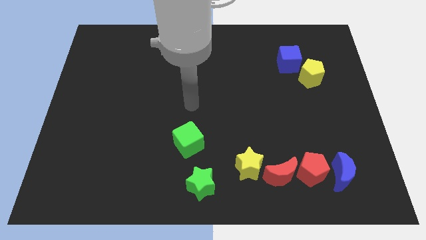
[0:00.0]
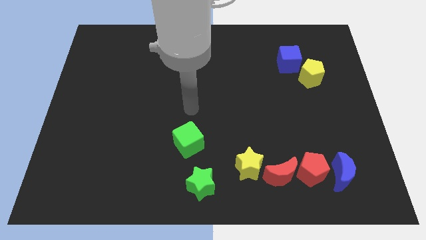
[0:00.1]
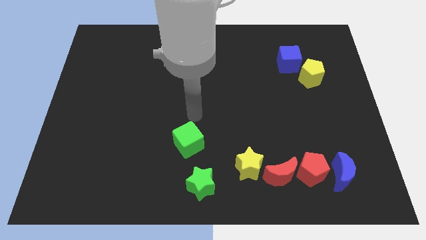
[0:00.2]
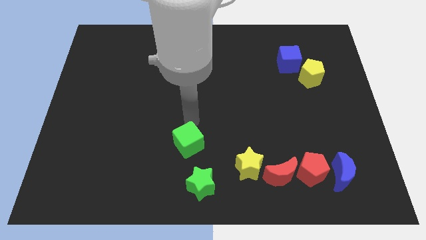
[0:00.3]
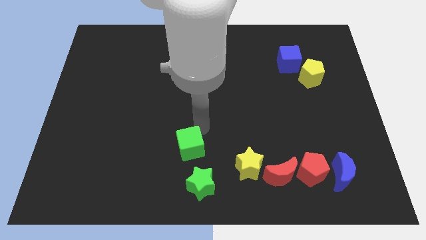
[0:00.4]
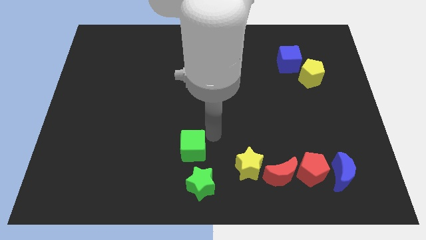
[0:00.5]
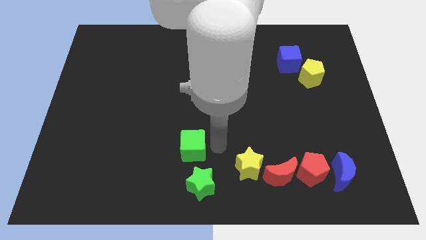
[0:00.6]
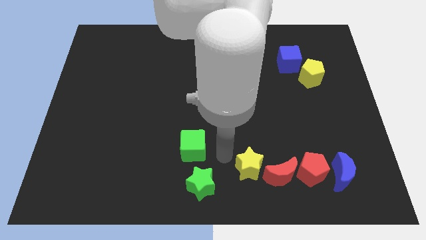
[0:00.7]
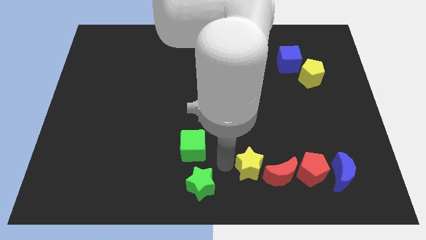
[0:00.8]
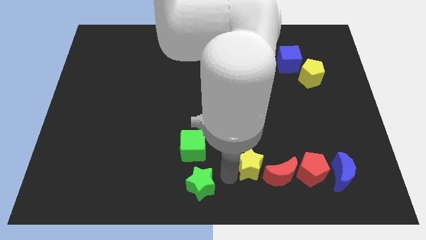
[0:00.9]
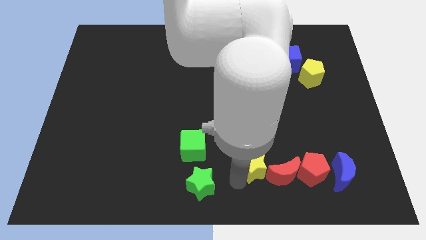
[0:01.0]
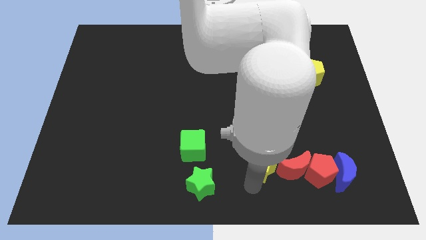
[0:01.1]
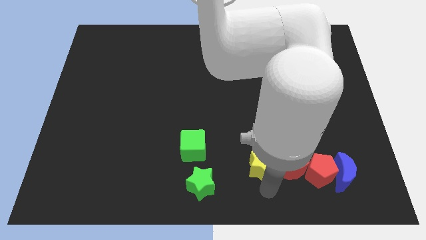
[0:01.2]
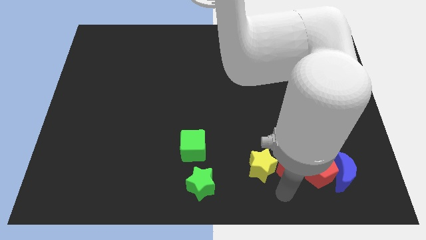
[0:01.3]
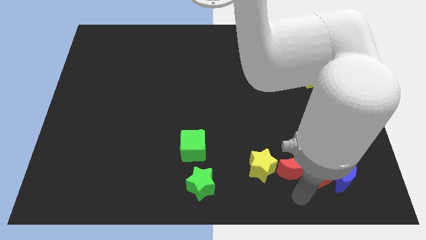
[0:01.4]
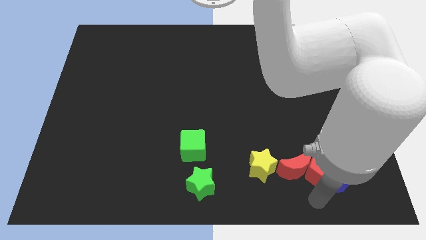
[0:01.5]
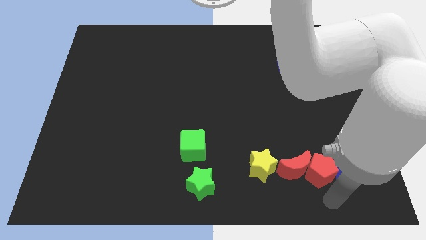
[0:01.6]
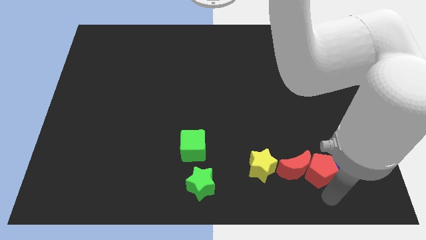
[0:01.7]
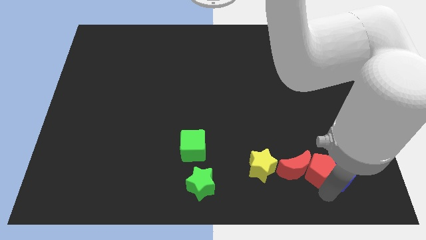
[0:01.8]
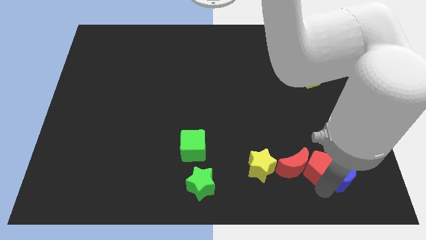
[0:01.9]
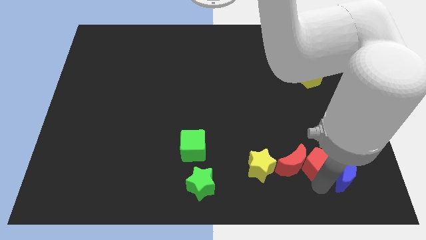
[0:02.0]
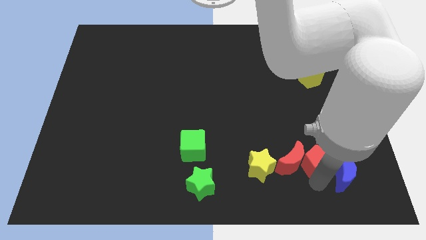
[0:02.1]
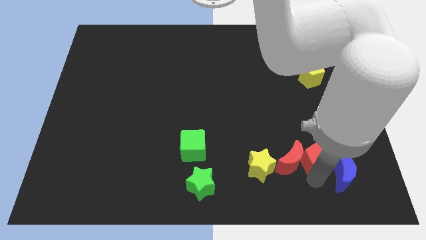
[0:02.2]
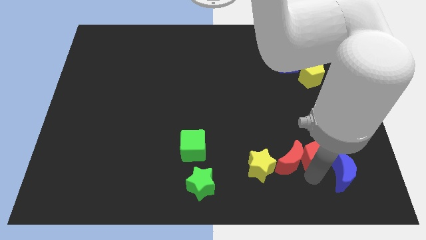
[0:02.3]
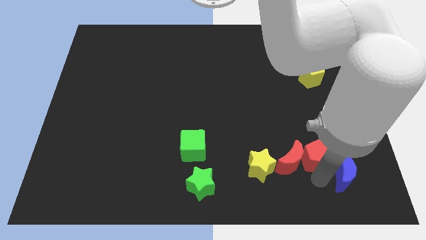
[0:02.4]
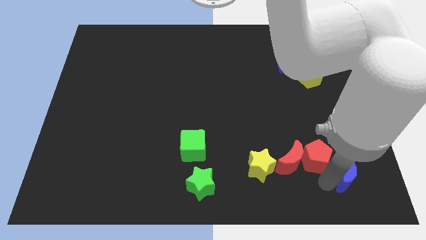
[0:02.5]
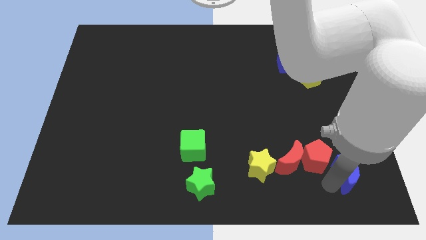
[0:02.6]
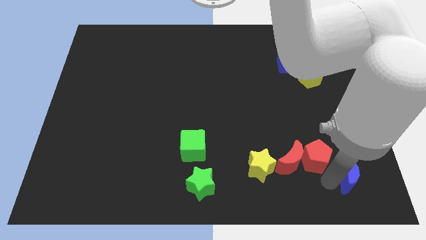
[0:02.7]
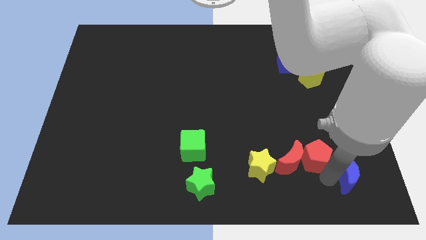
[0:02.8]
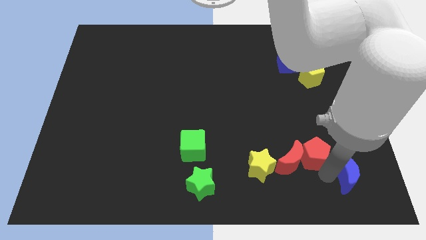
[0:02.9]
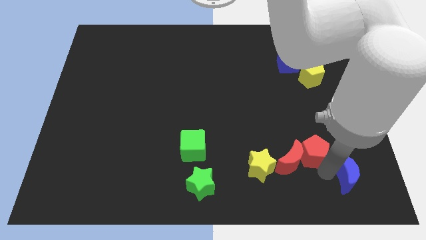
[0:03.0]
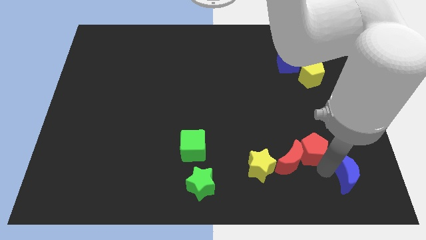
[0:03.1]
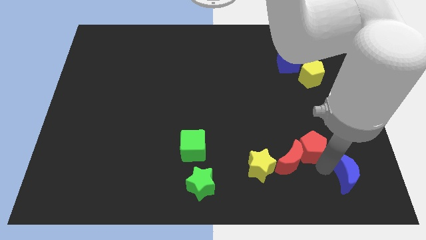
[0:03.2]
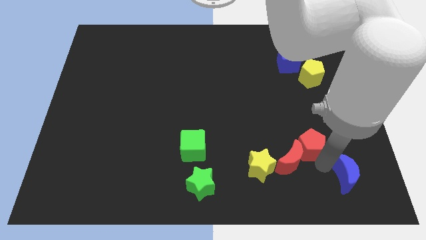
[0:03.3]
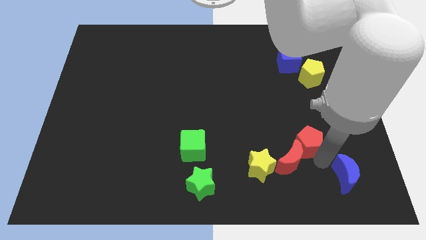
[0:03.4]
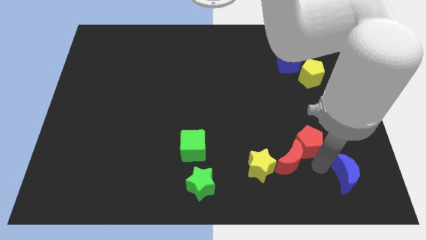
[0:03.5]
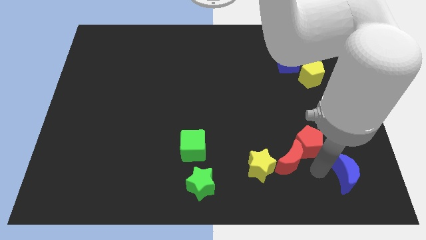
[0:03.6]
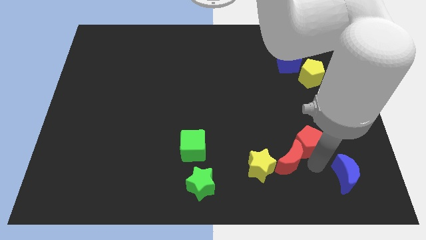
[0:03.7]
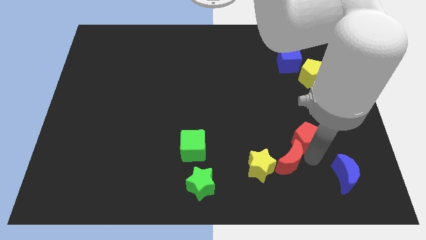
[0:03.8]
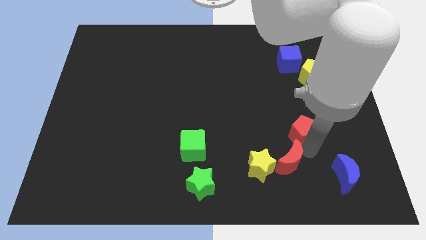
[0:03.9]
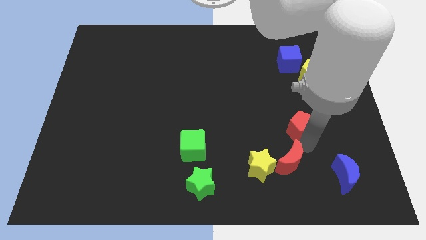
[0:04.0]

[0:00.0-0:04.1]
move the red pentagon away from the red moon and blue moon

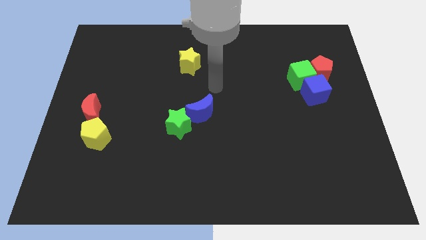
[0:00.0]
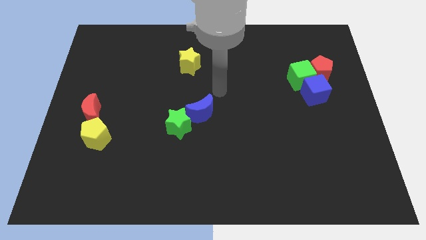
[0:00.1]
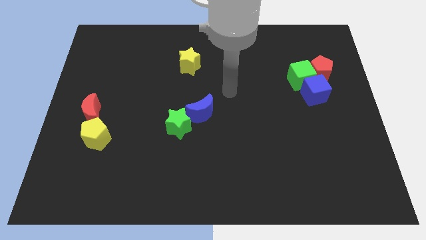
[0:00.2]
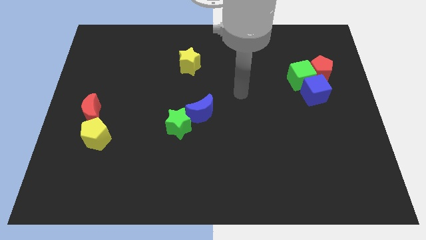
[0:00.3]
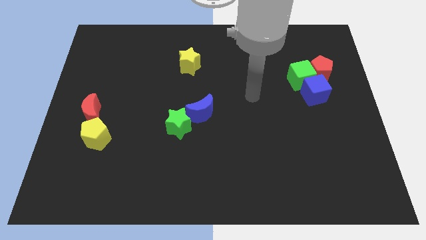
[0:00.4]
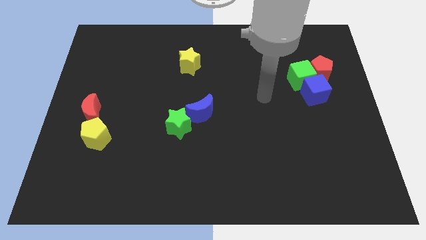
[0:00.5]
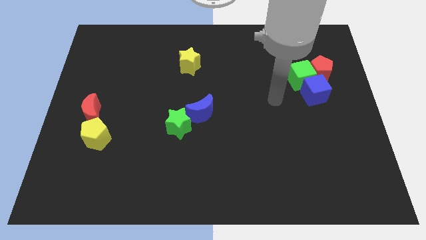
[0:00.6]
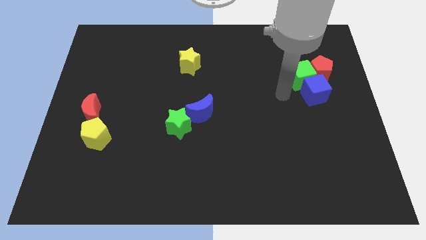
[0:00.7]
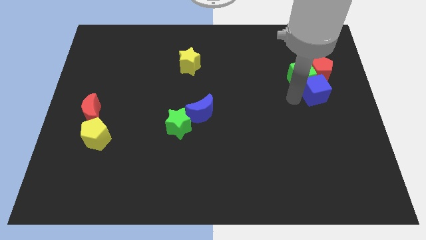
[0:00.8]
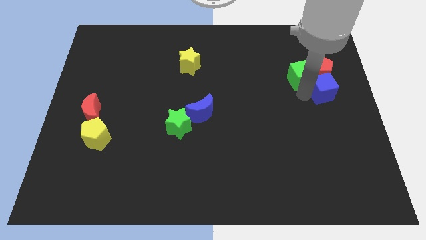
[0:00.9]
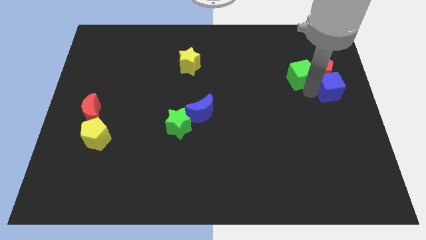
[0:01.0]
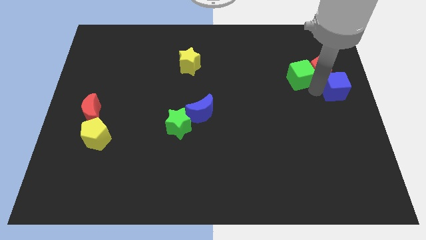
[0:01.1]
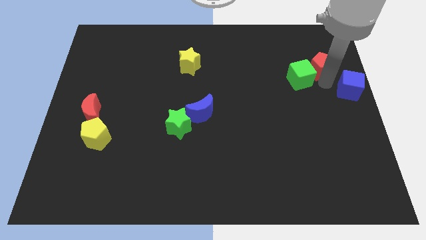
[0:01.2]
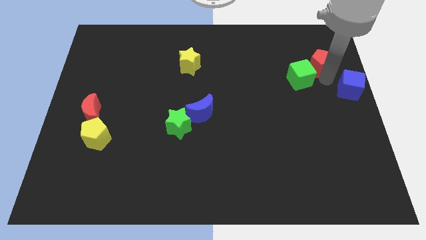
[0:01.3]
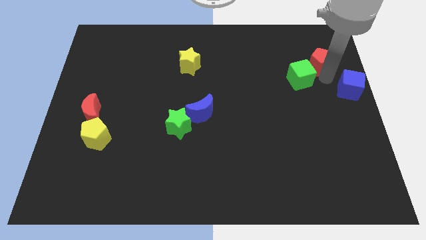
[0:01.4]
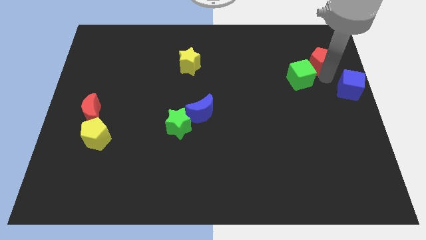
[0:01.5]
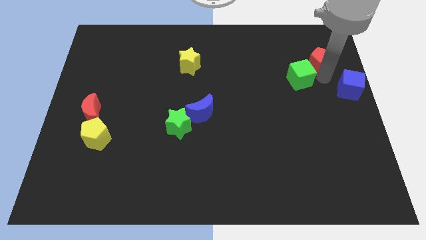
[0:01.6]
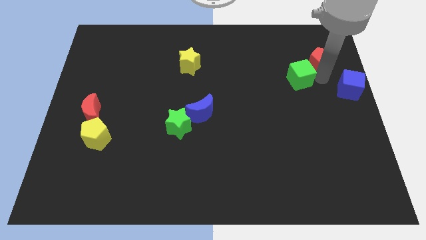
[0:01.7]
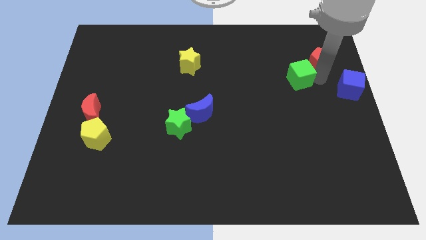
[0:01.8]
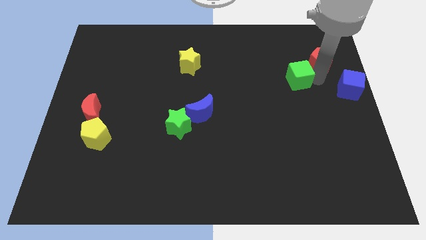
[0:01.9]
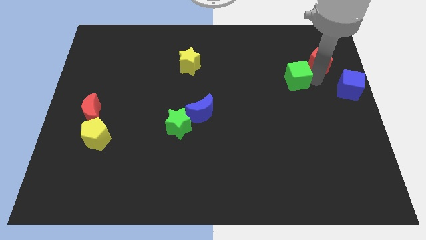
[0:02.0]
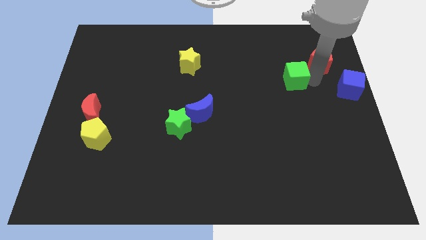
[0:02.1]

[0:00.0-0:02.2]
move the green cube away from the red pentagon and blue cube

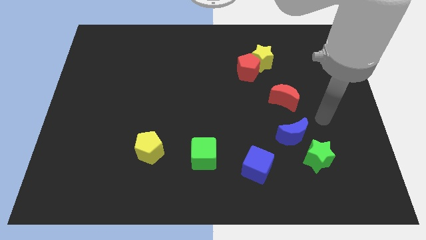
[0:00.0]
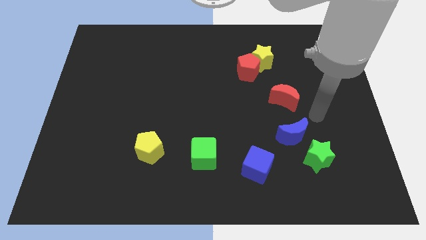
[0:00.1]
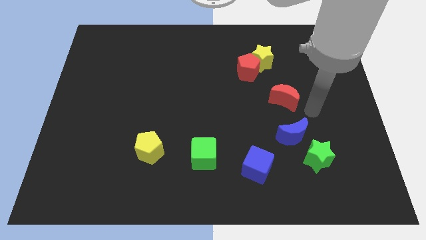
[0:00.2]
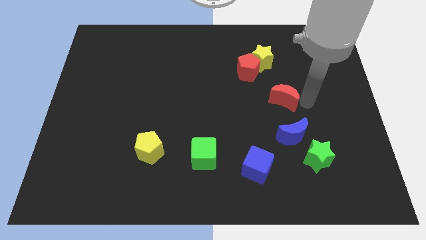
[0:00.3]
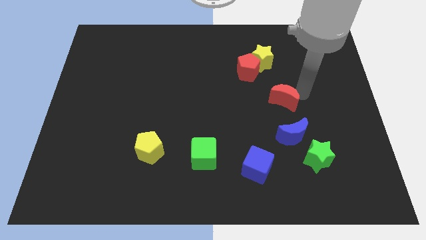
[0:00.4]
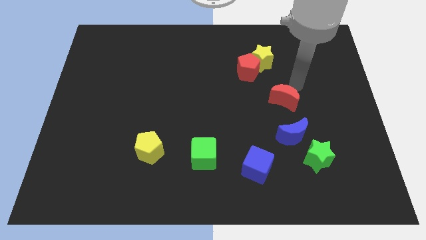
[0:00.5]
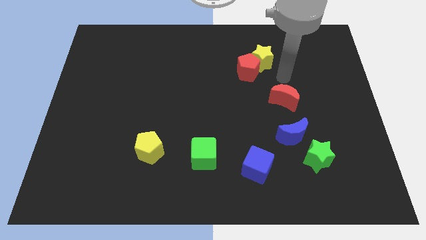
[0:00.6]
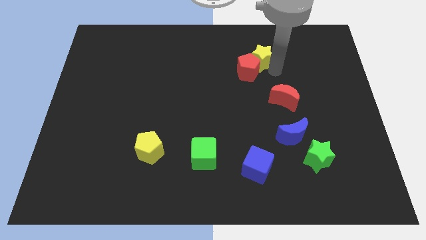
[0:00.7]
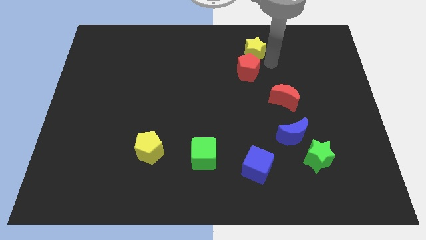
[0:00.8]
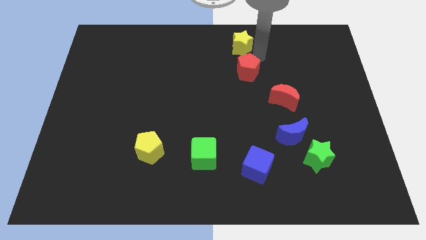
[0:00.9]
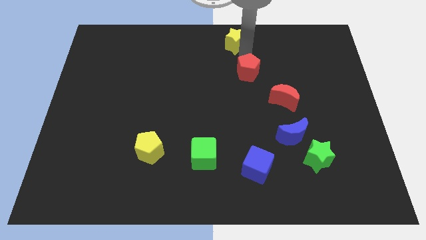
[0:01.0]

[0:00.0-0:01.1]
separate the red pentagon from the yellow star

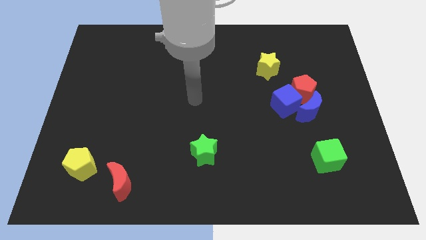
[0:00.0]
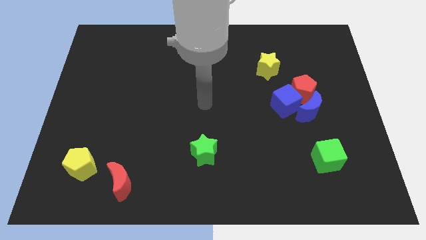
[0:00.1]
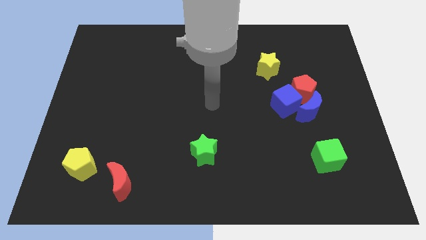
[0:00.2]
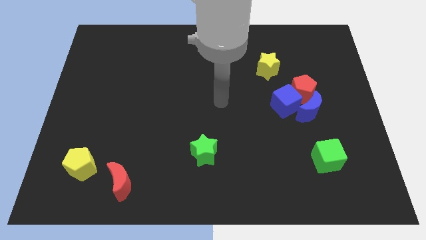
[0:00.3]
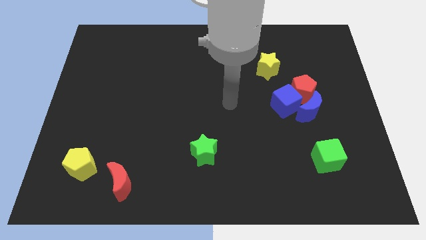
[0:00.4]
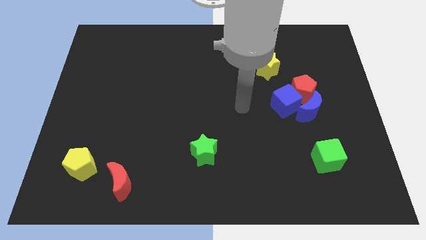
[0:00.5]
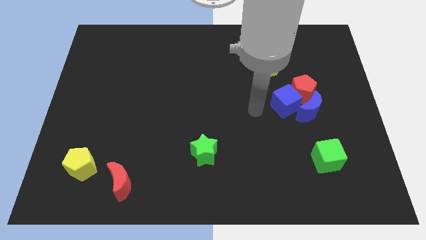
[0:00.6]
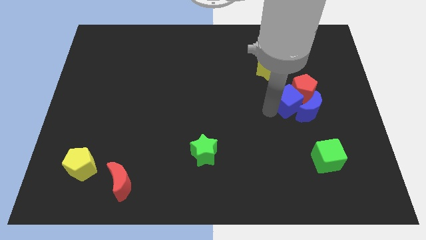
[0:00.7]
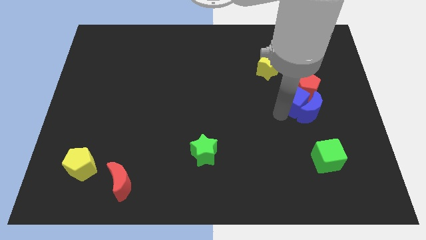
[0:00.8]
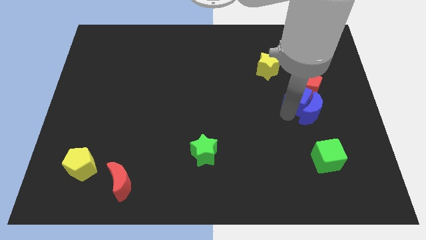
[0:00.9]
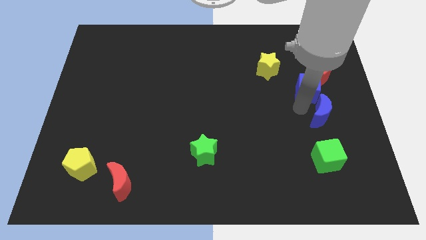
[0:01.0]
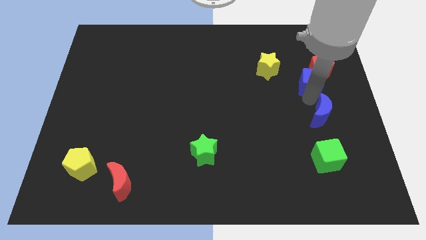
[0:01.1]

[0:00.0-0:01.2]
pull the red pentagon apart from the blue cube and blue moon

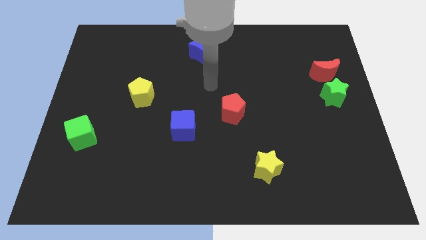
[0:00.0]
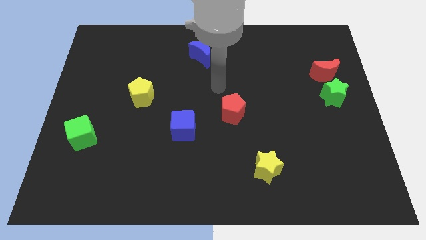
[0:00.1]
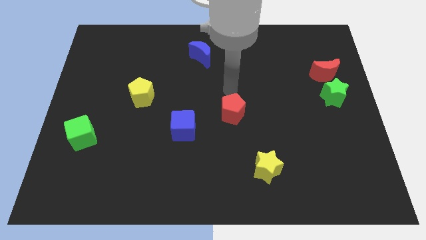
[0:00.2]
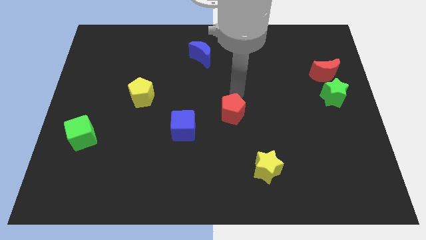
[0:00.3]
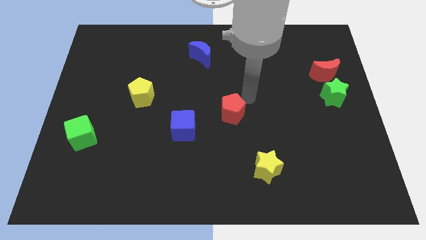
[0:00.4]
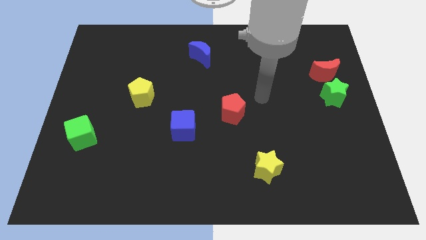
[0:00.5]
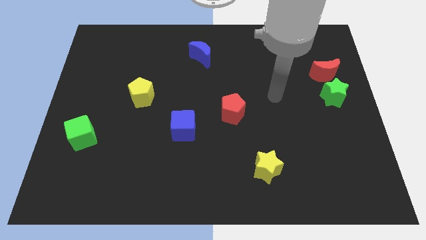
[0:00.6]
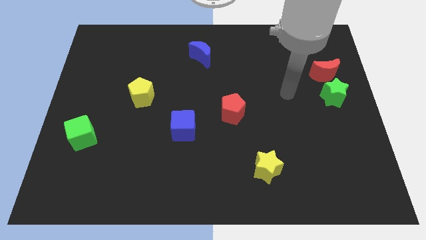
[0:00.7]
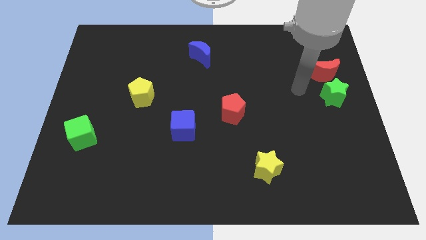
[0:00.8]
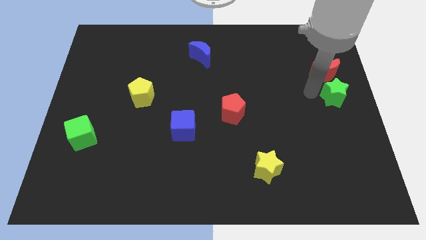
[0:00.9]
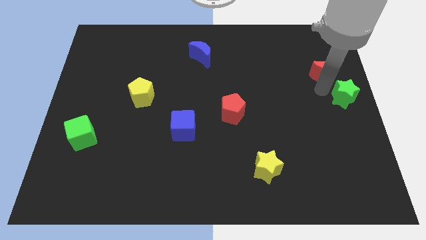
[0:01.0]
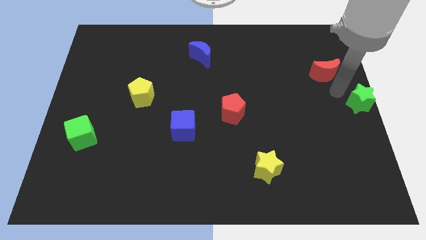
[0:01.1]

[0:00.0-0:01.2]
separate the red moon from the green star
